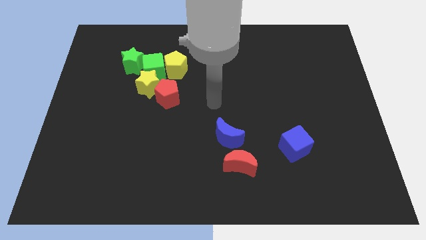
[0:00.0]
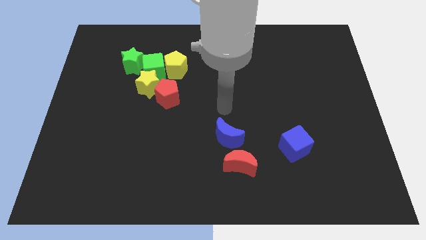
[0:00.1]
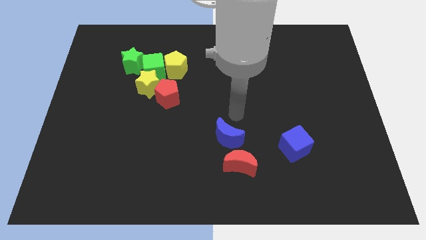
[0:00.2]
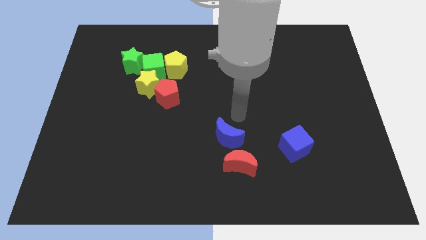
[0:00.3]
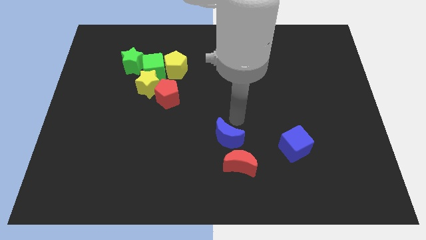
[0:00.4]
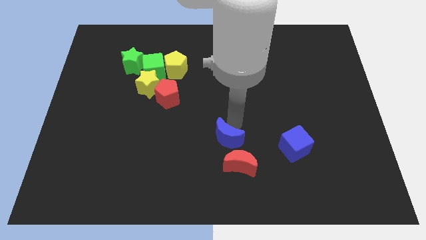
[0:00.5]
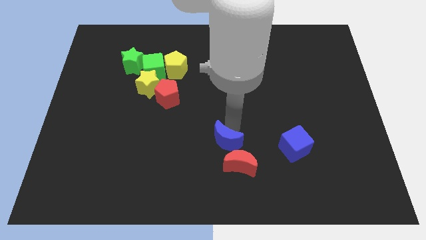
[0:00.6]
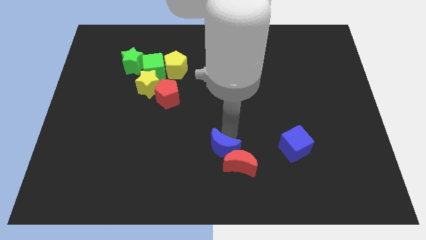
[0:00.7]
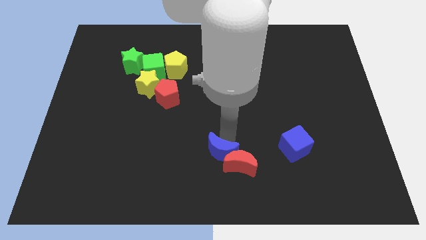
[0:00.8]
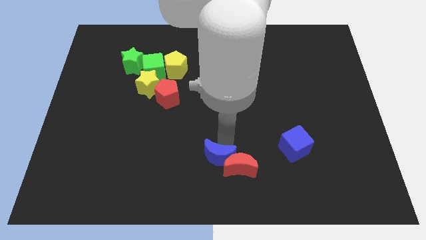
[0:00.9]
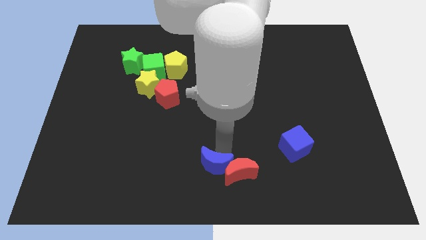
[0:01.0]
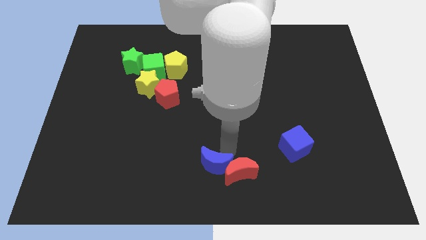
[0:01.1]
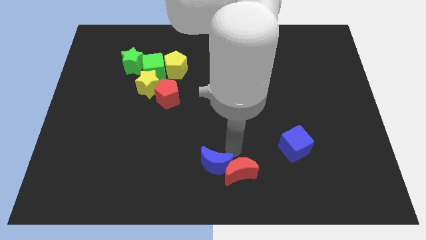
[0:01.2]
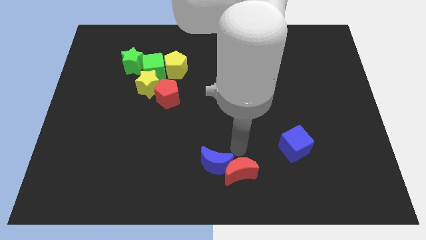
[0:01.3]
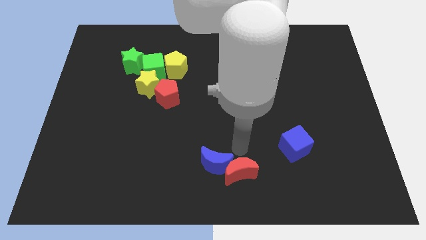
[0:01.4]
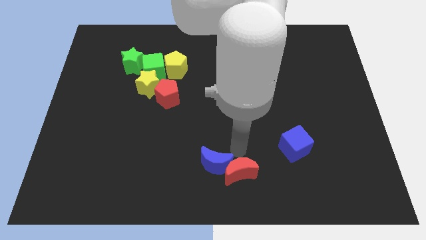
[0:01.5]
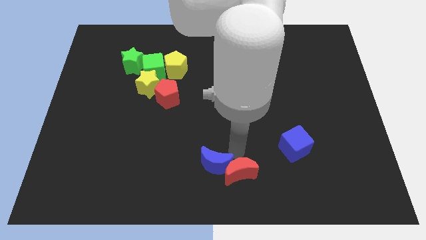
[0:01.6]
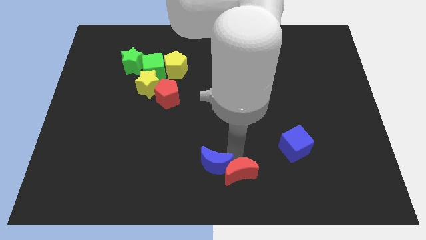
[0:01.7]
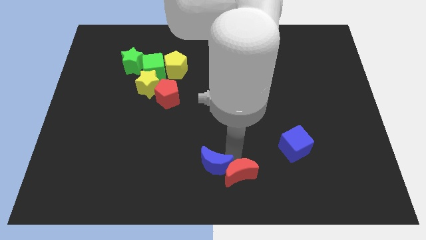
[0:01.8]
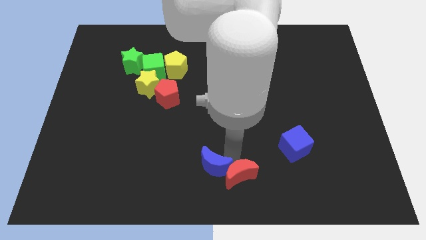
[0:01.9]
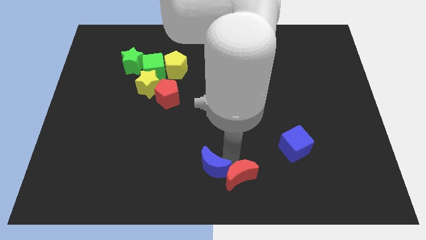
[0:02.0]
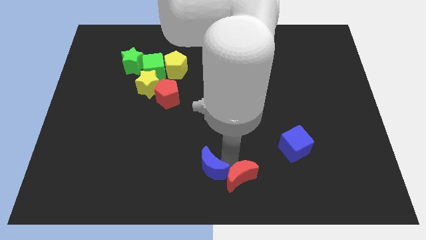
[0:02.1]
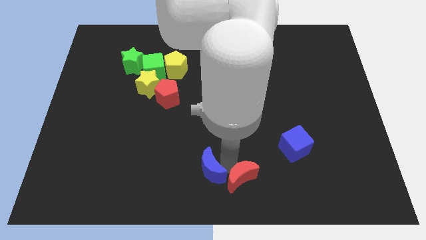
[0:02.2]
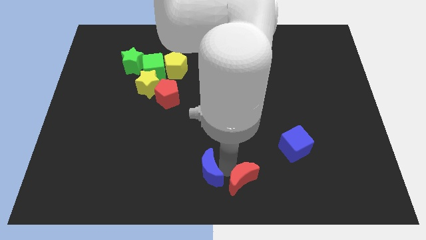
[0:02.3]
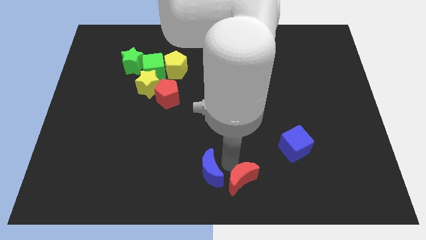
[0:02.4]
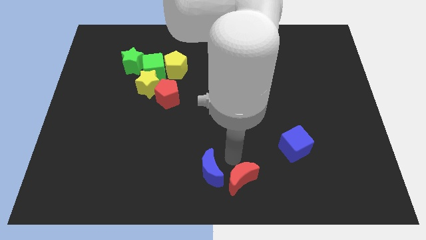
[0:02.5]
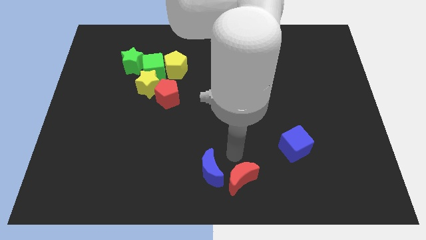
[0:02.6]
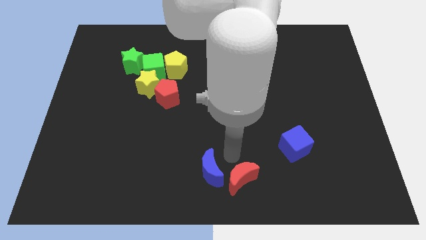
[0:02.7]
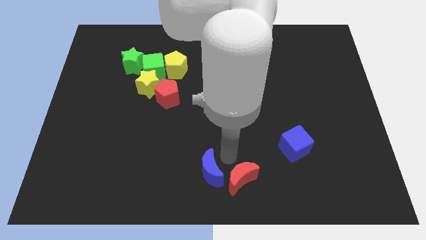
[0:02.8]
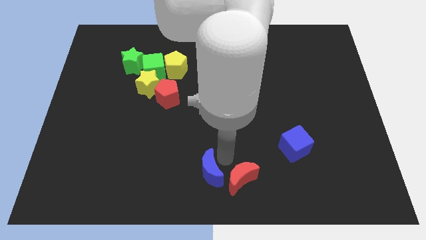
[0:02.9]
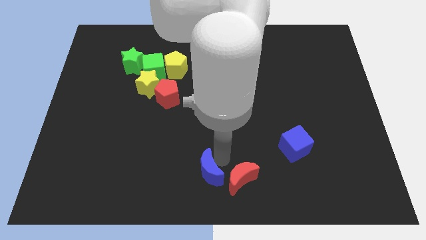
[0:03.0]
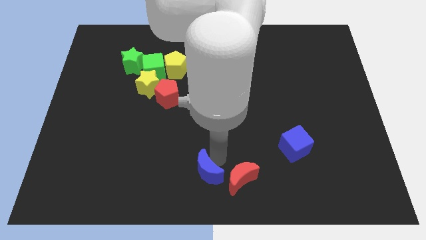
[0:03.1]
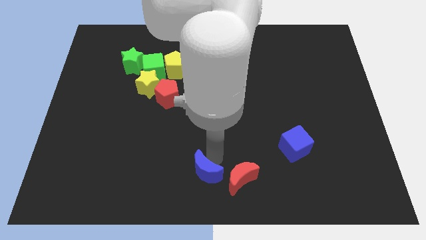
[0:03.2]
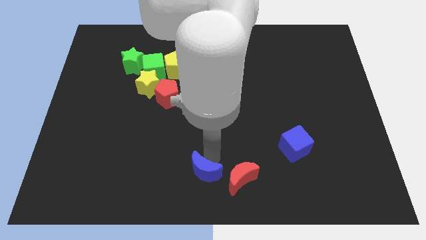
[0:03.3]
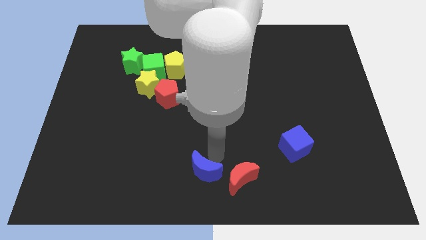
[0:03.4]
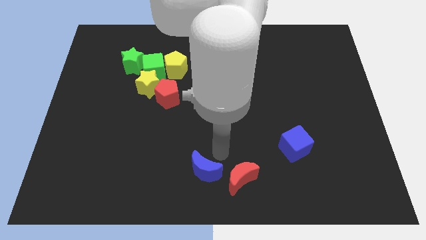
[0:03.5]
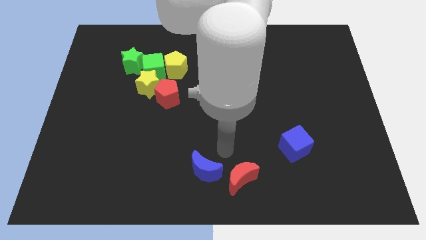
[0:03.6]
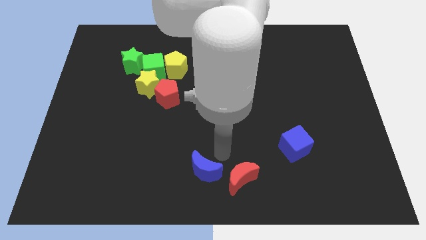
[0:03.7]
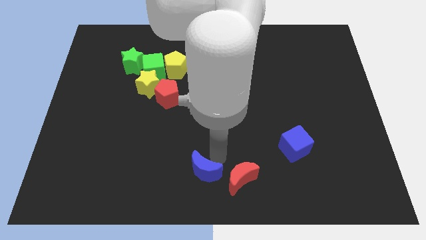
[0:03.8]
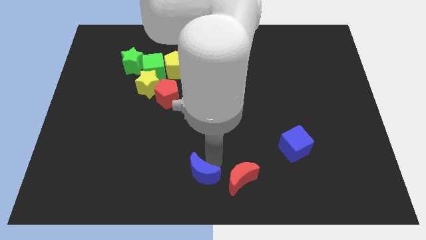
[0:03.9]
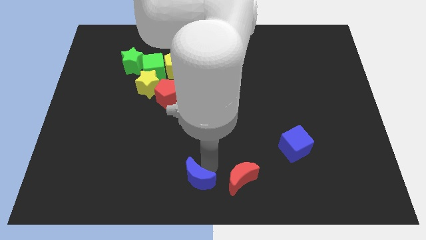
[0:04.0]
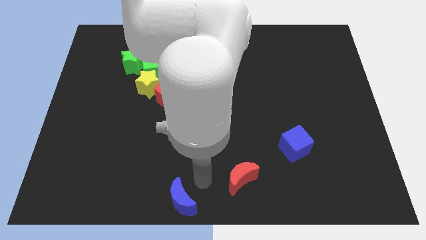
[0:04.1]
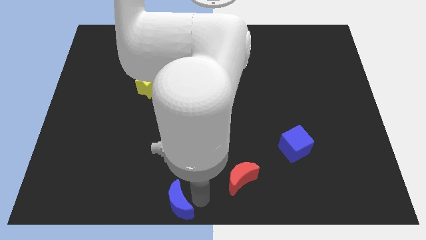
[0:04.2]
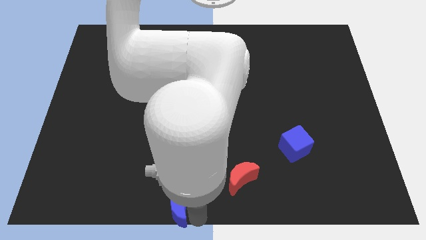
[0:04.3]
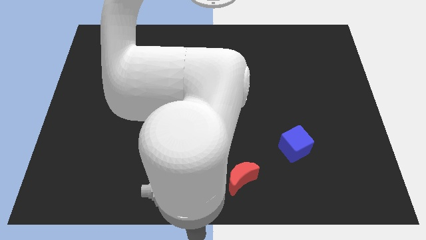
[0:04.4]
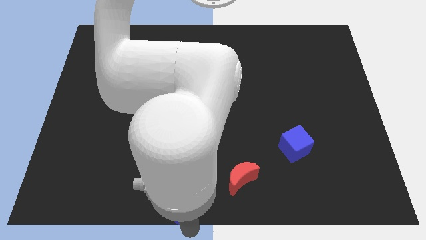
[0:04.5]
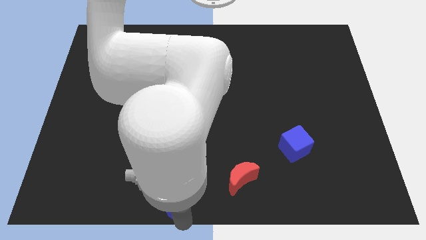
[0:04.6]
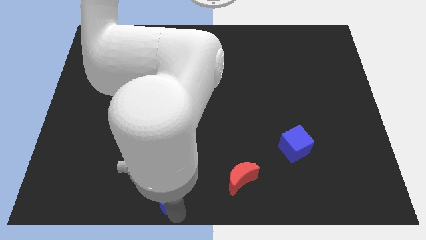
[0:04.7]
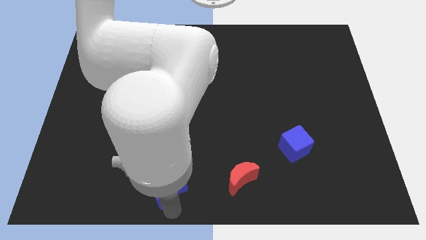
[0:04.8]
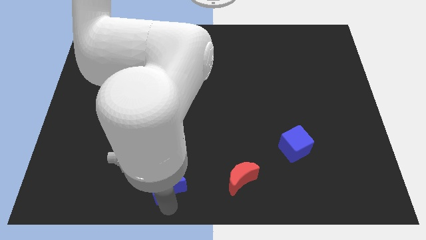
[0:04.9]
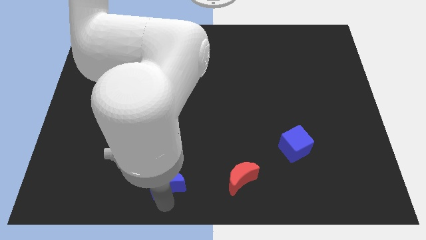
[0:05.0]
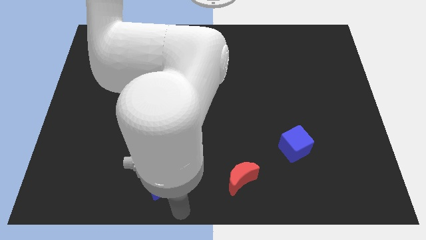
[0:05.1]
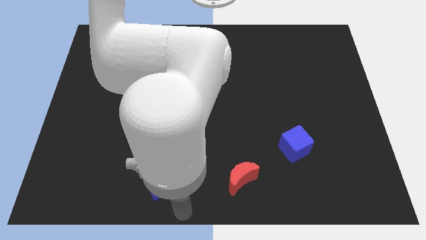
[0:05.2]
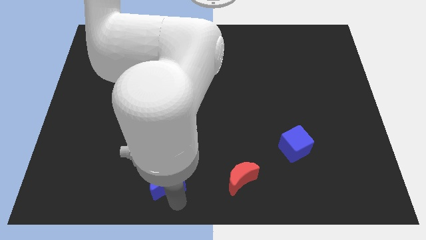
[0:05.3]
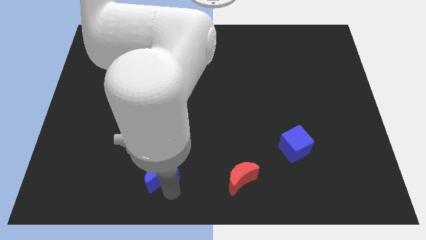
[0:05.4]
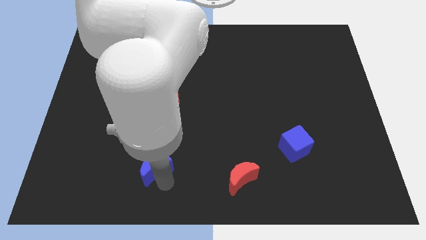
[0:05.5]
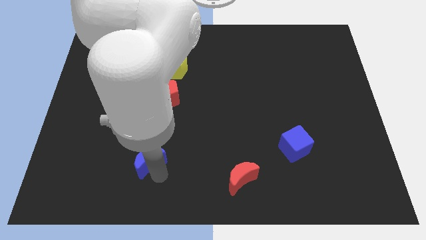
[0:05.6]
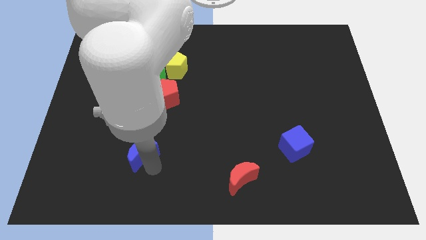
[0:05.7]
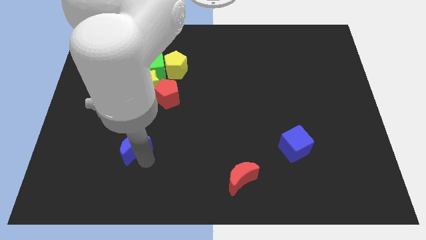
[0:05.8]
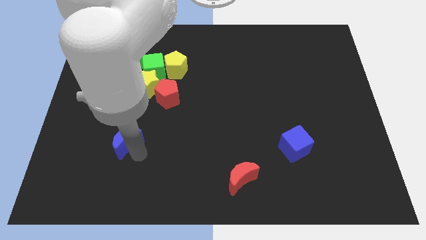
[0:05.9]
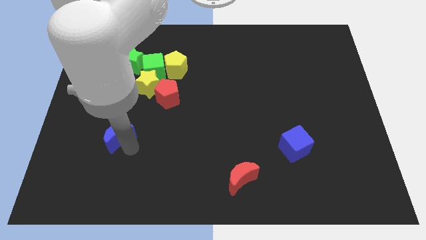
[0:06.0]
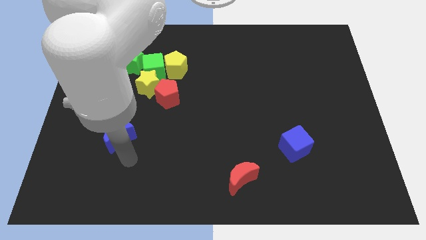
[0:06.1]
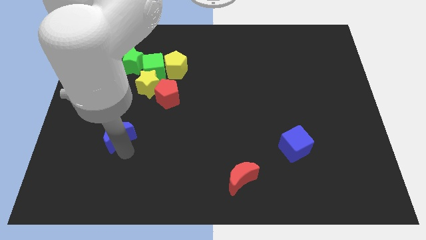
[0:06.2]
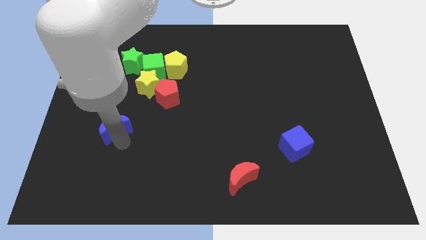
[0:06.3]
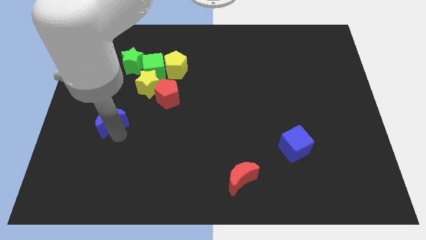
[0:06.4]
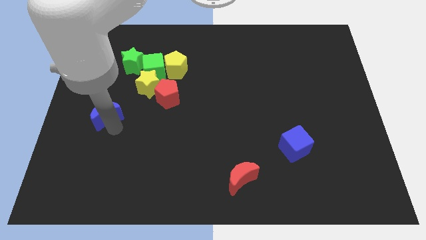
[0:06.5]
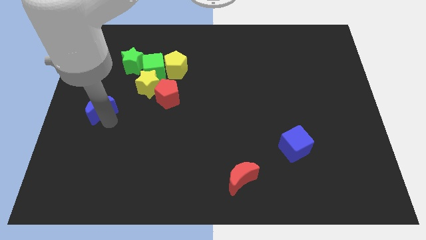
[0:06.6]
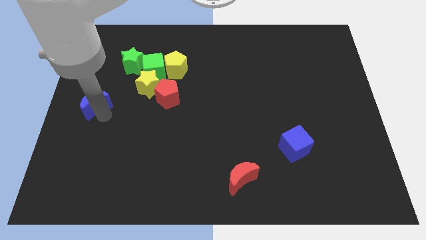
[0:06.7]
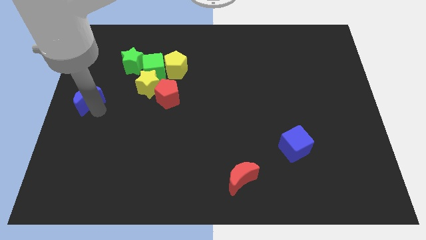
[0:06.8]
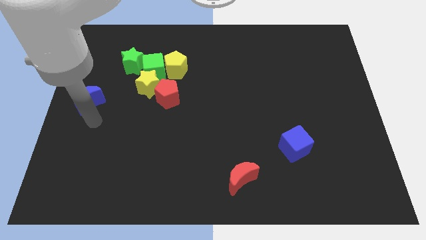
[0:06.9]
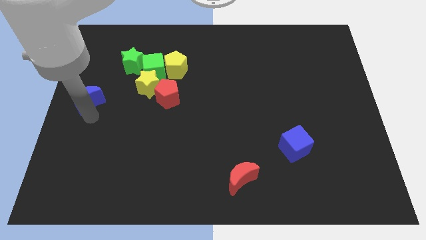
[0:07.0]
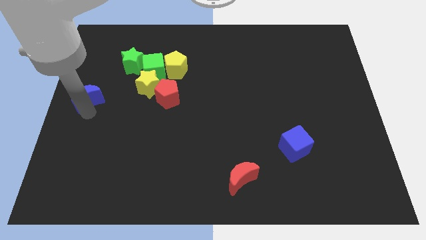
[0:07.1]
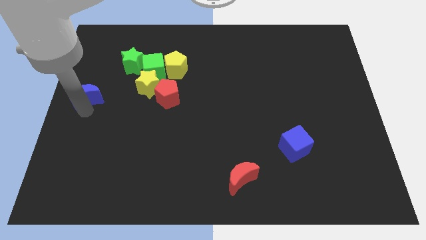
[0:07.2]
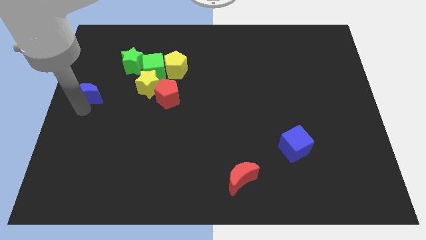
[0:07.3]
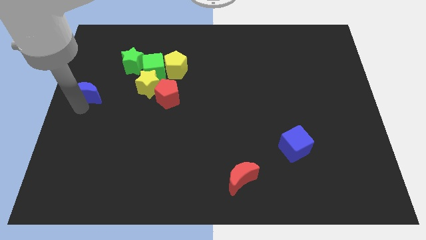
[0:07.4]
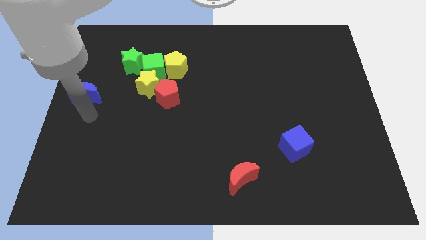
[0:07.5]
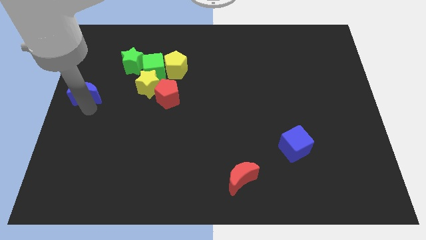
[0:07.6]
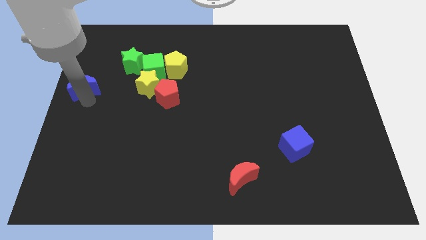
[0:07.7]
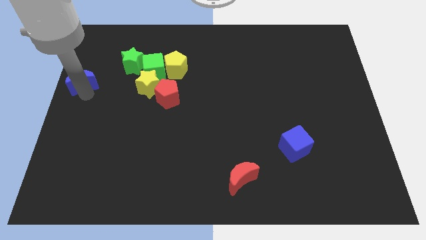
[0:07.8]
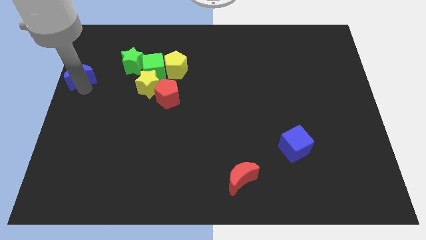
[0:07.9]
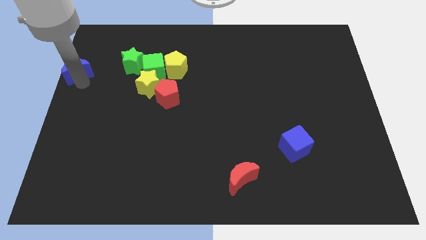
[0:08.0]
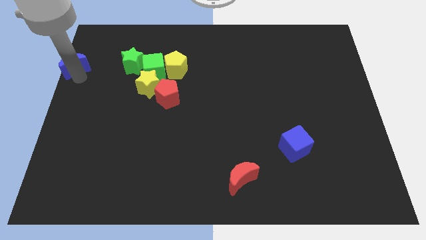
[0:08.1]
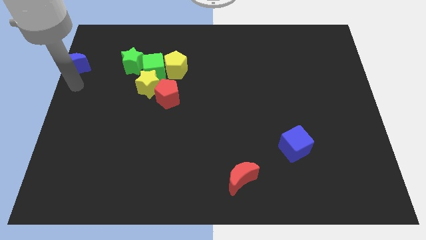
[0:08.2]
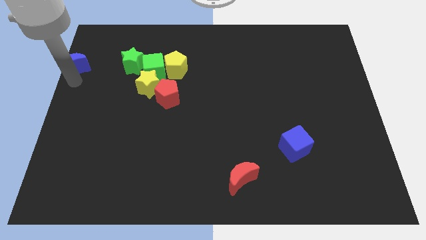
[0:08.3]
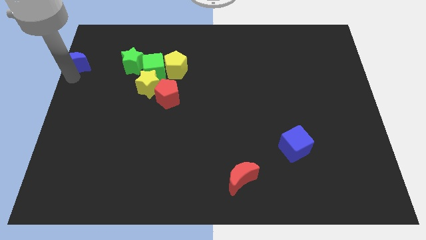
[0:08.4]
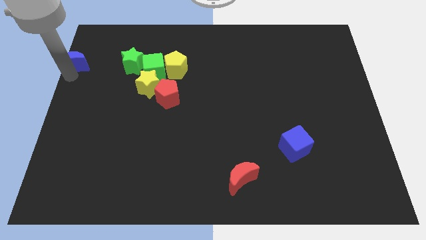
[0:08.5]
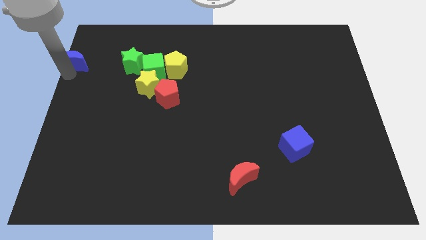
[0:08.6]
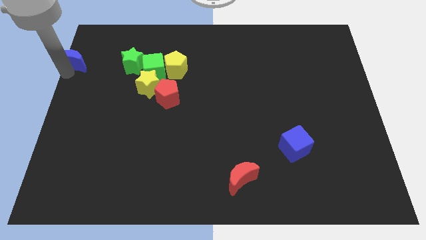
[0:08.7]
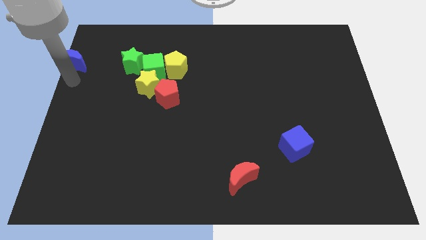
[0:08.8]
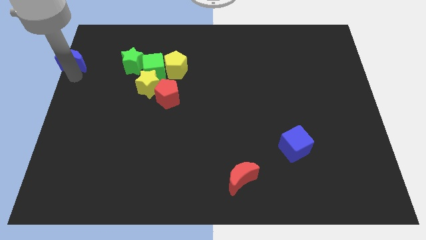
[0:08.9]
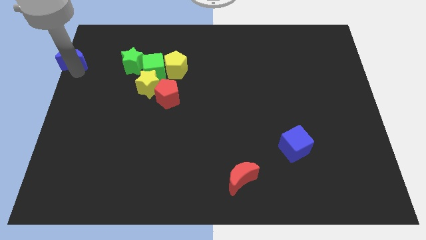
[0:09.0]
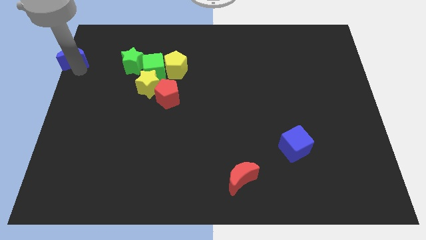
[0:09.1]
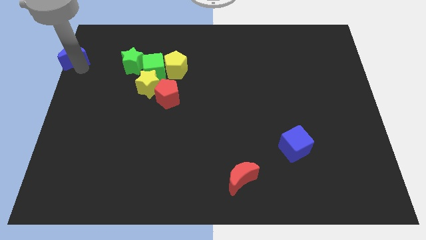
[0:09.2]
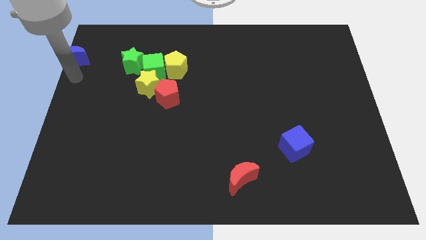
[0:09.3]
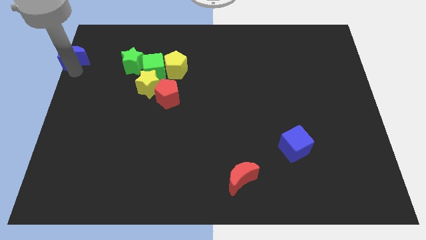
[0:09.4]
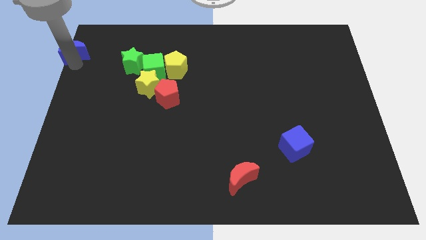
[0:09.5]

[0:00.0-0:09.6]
push the blue moon to the top left
